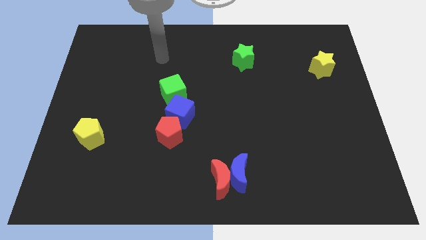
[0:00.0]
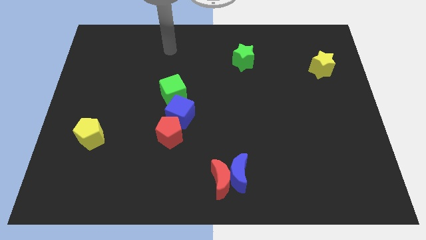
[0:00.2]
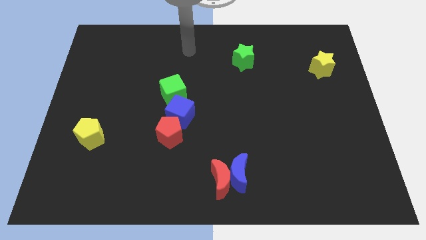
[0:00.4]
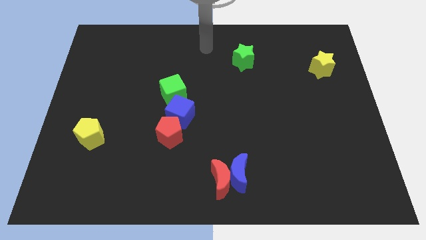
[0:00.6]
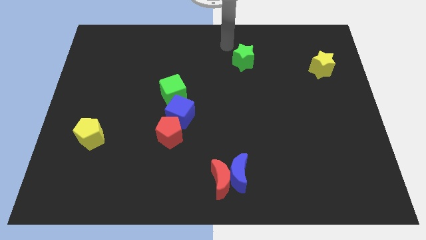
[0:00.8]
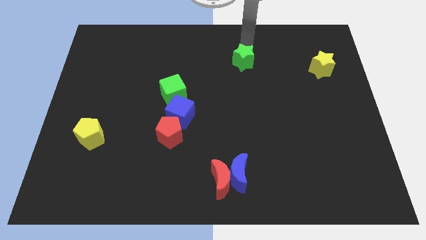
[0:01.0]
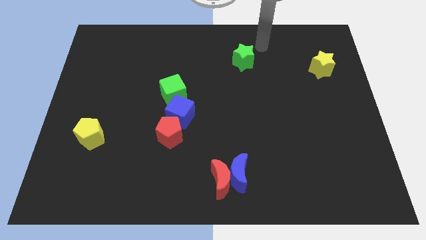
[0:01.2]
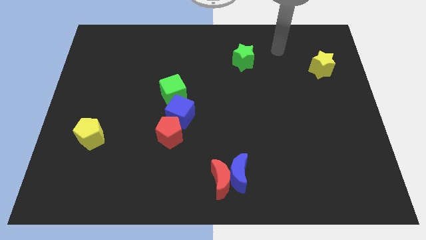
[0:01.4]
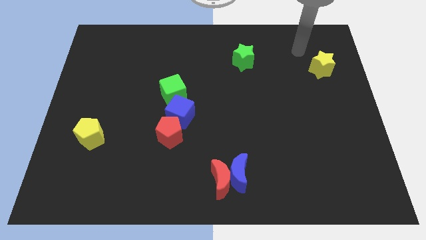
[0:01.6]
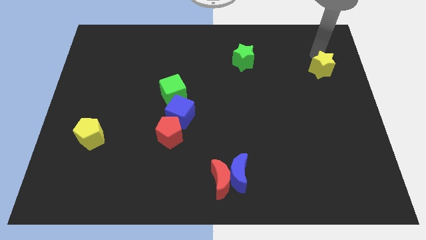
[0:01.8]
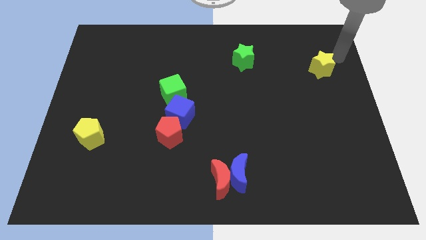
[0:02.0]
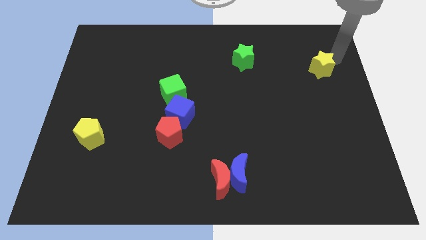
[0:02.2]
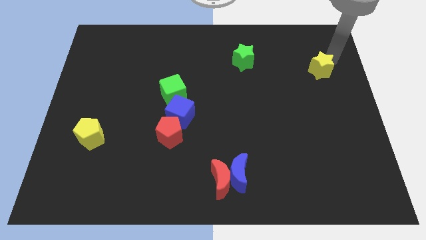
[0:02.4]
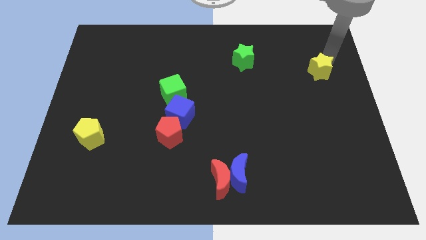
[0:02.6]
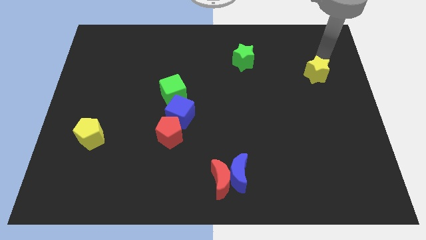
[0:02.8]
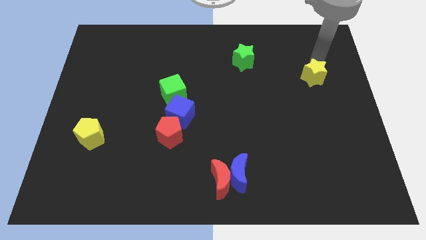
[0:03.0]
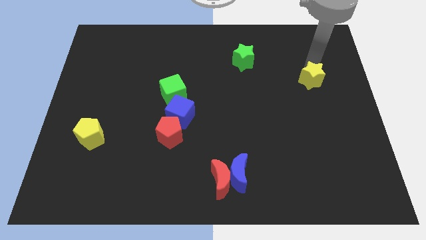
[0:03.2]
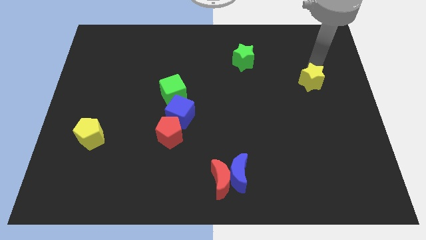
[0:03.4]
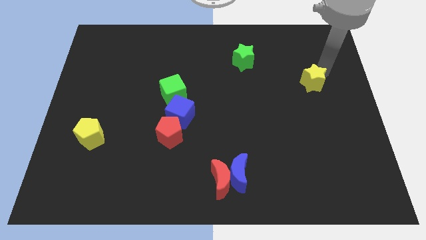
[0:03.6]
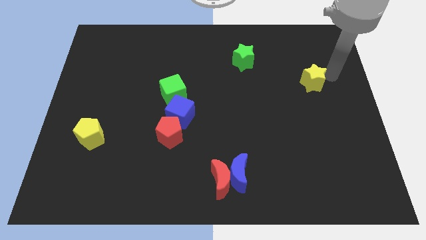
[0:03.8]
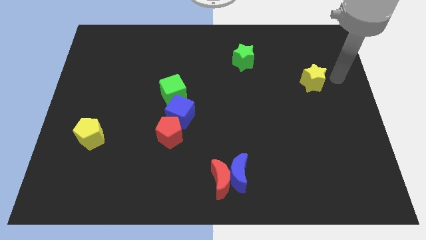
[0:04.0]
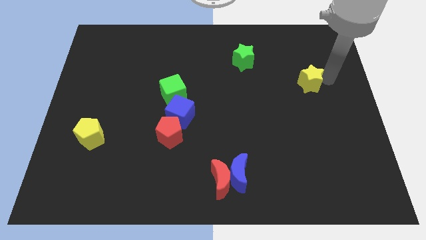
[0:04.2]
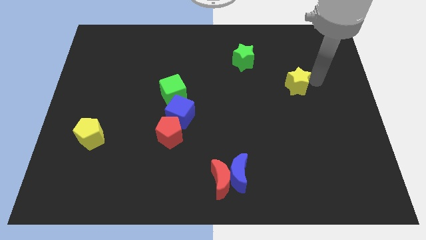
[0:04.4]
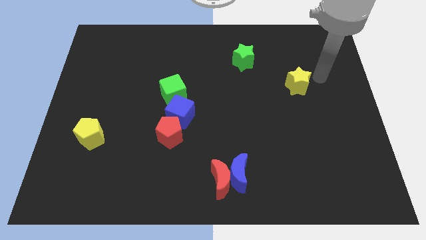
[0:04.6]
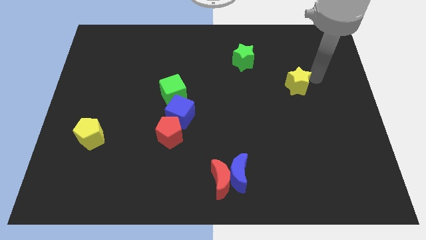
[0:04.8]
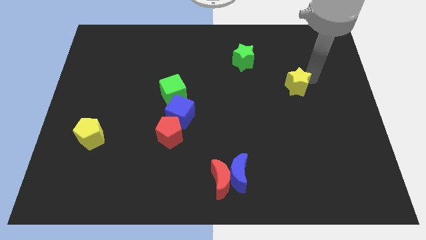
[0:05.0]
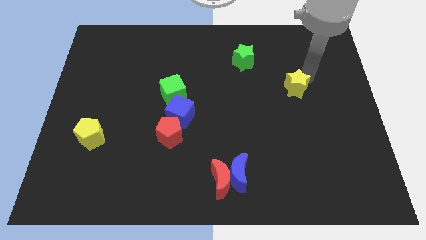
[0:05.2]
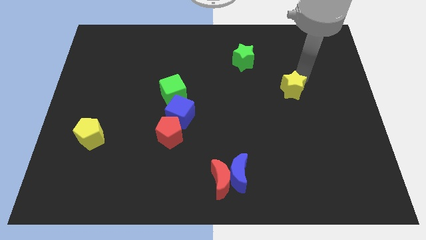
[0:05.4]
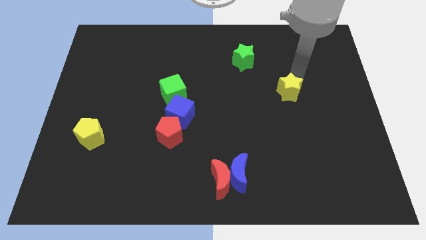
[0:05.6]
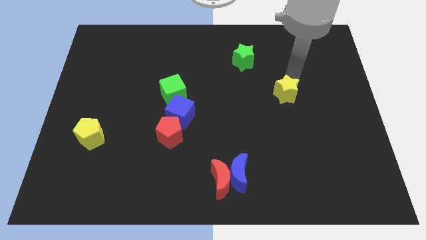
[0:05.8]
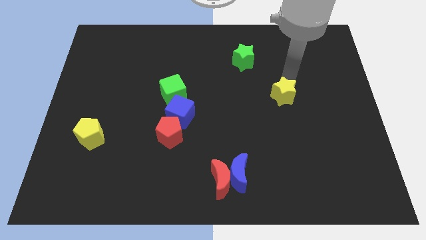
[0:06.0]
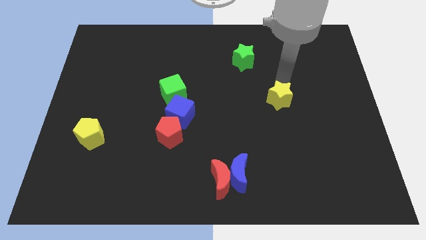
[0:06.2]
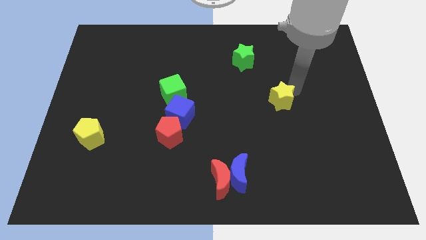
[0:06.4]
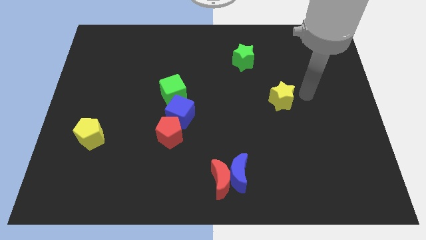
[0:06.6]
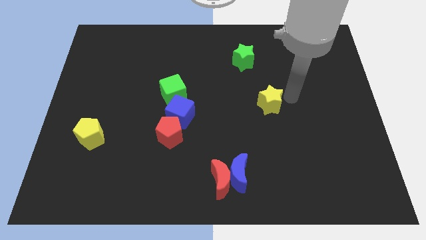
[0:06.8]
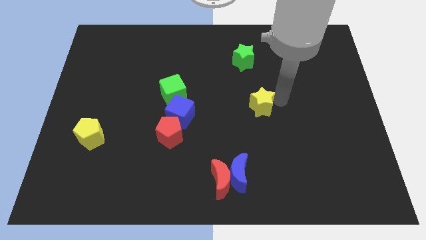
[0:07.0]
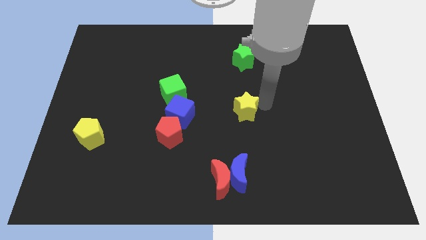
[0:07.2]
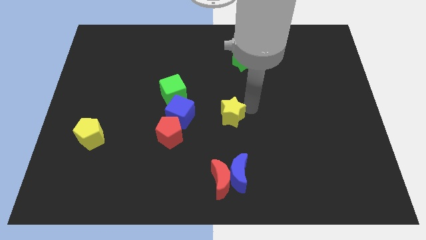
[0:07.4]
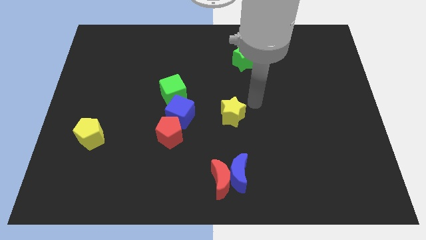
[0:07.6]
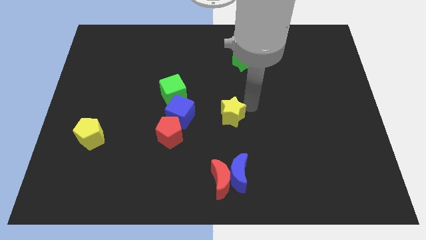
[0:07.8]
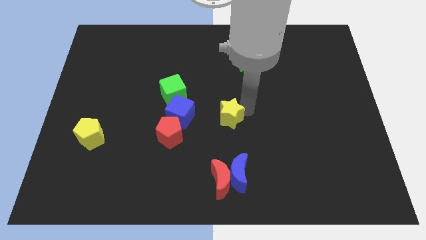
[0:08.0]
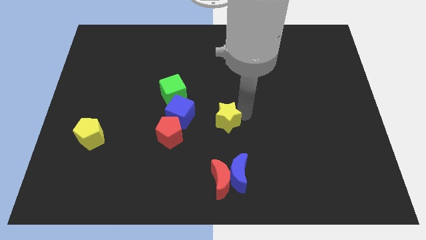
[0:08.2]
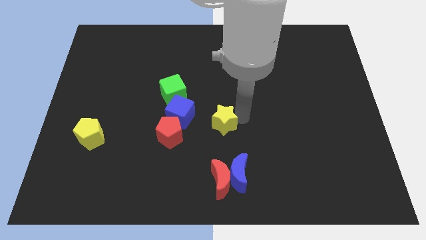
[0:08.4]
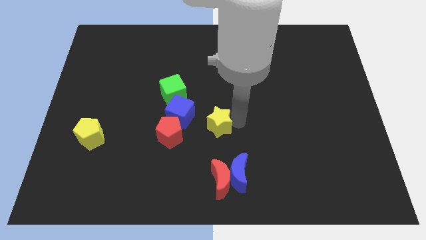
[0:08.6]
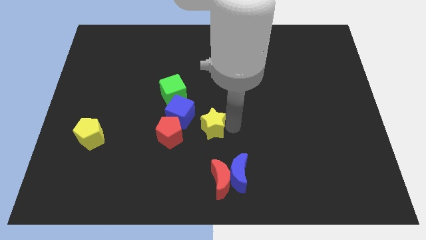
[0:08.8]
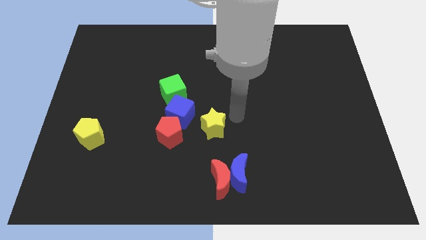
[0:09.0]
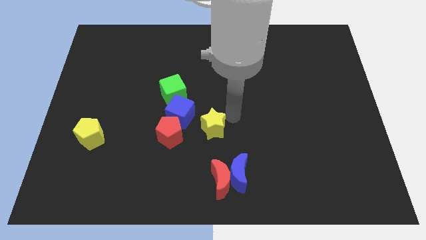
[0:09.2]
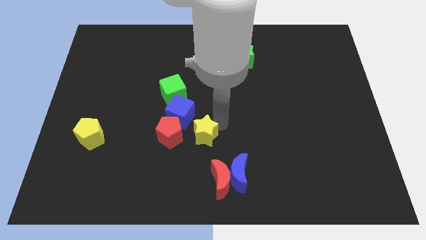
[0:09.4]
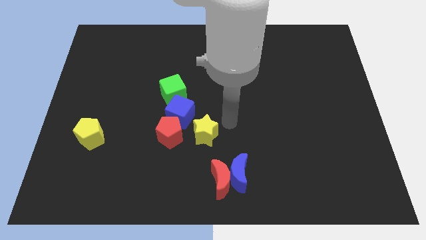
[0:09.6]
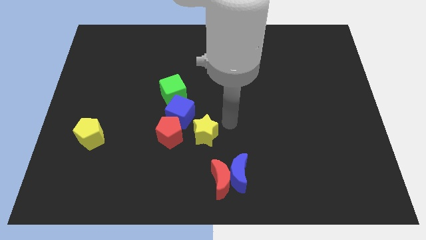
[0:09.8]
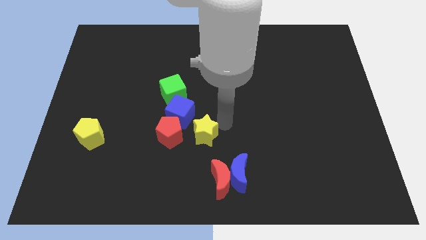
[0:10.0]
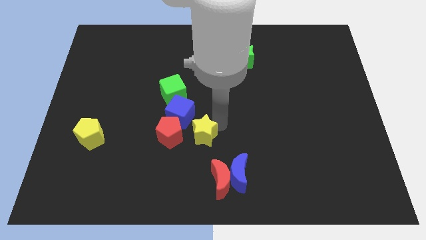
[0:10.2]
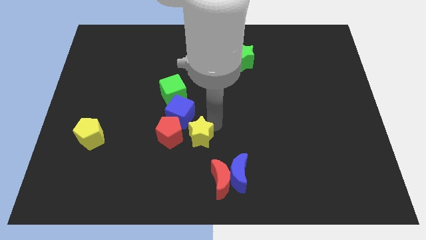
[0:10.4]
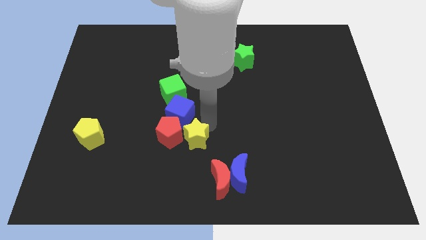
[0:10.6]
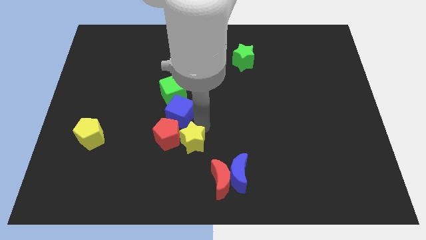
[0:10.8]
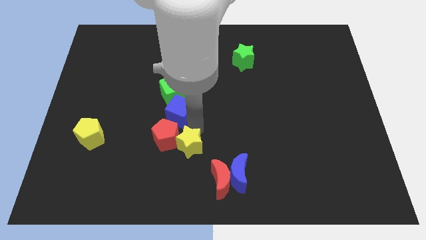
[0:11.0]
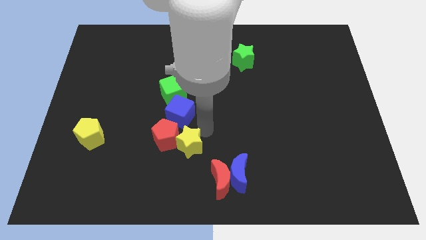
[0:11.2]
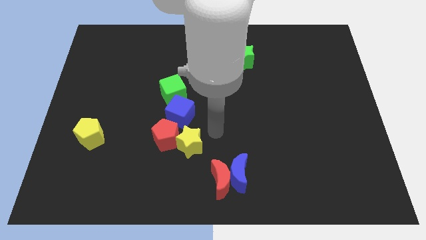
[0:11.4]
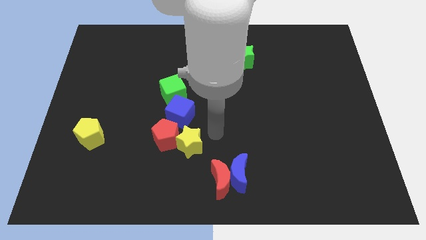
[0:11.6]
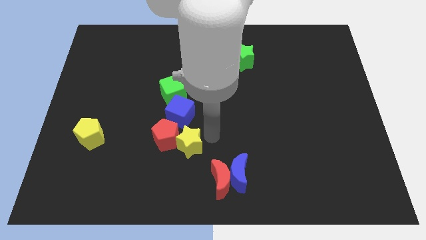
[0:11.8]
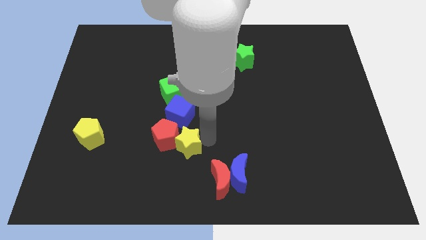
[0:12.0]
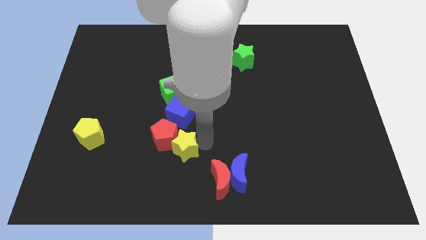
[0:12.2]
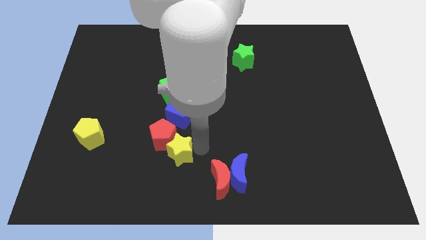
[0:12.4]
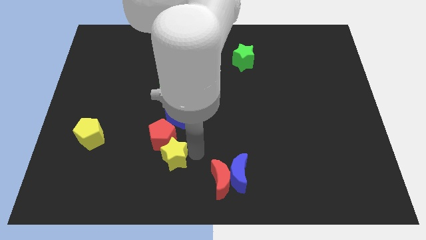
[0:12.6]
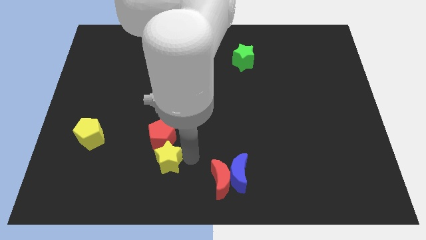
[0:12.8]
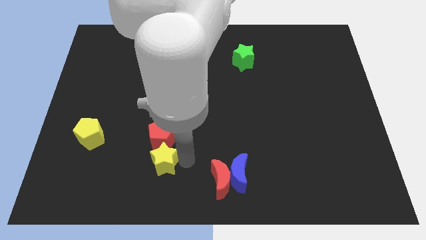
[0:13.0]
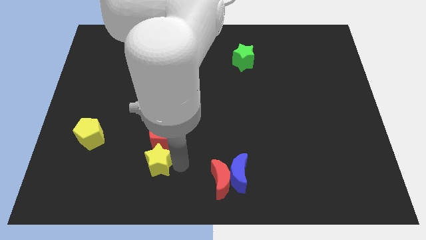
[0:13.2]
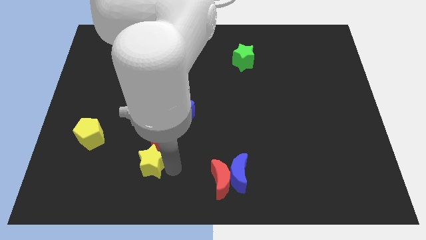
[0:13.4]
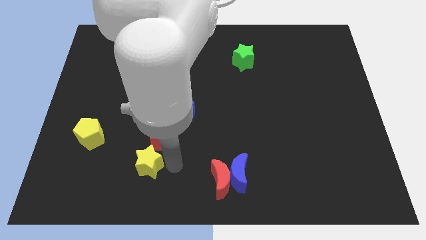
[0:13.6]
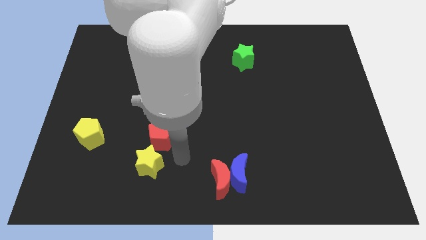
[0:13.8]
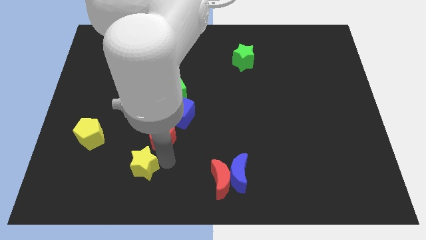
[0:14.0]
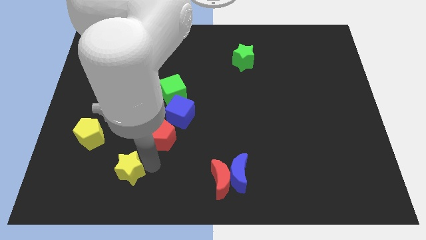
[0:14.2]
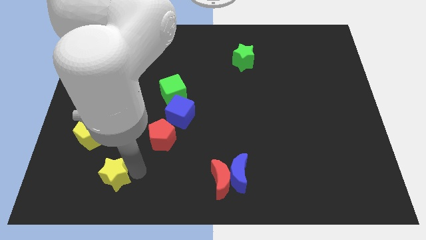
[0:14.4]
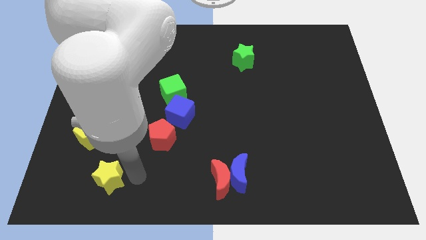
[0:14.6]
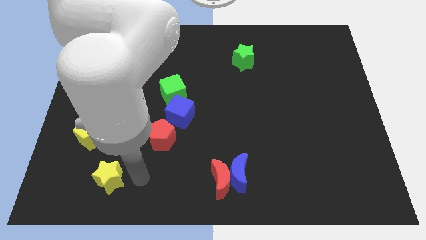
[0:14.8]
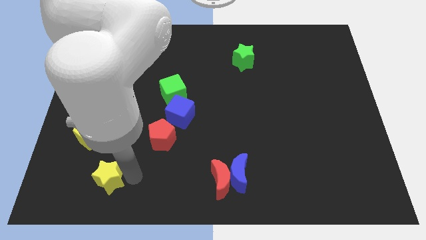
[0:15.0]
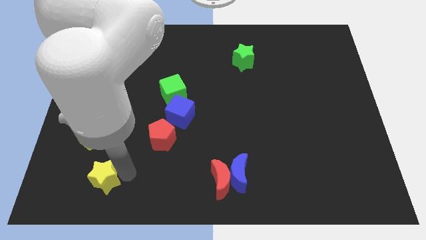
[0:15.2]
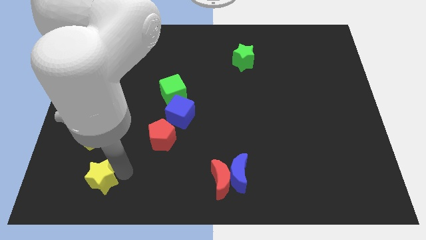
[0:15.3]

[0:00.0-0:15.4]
slide the yellow star to the bottom side of the yellow pentagon
